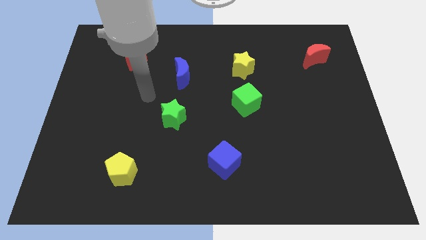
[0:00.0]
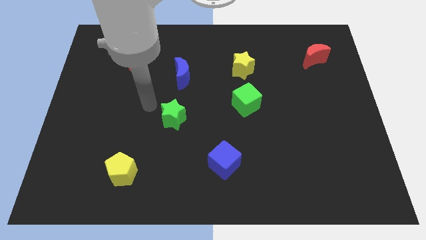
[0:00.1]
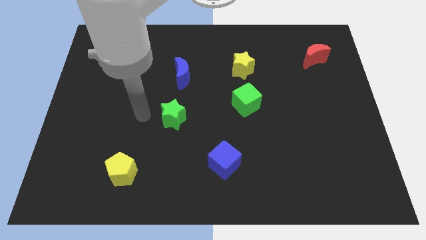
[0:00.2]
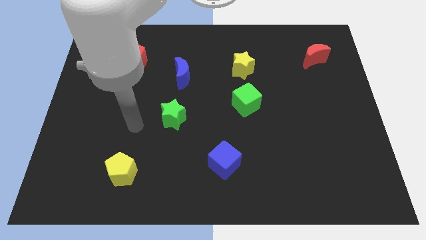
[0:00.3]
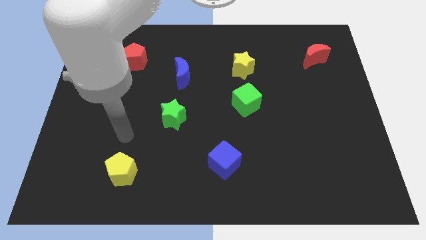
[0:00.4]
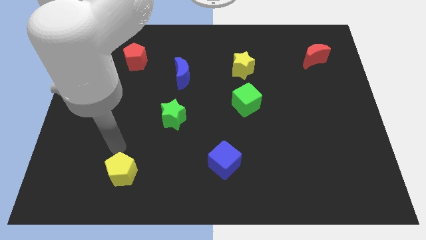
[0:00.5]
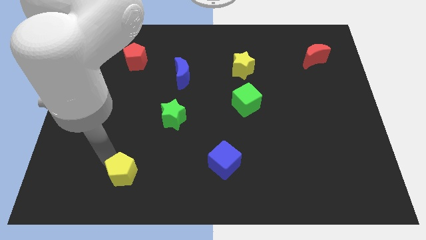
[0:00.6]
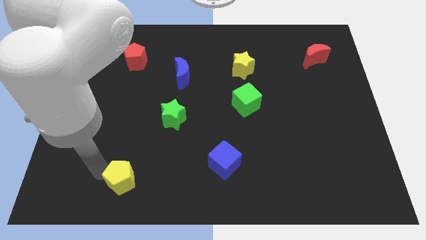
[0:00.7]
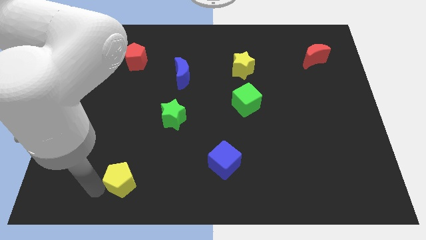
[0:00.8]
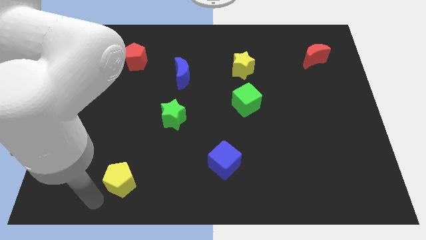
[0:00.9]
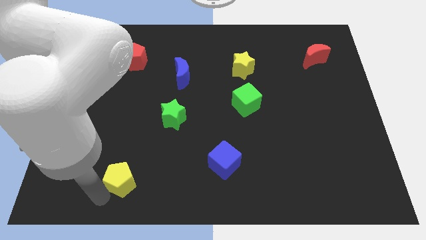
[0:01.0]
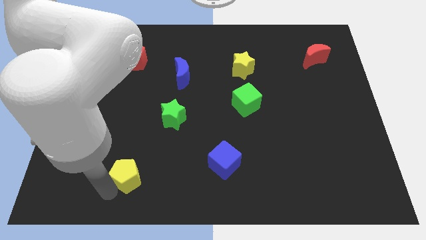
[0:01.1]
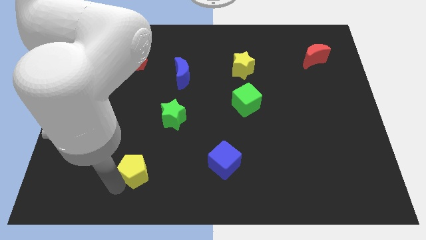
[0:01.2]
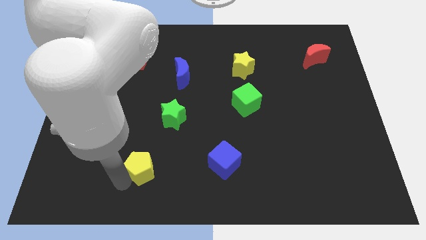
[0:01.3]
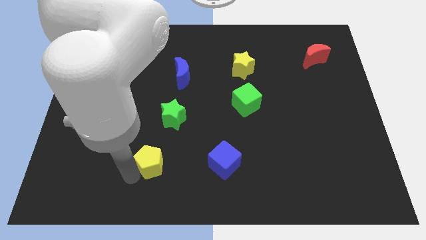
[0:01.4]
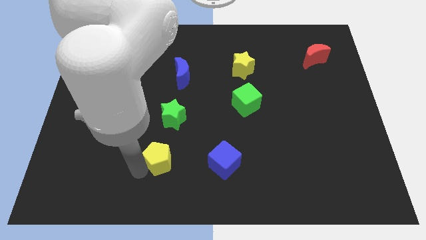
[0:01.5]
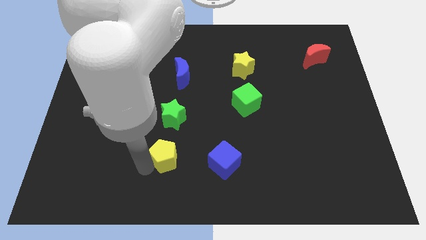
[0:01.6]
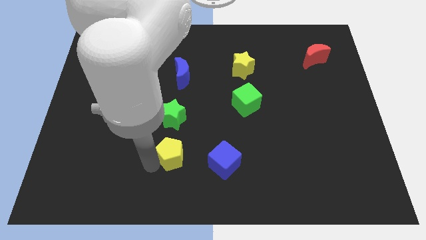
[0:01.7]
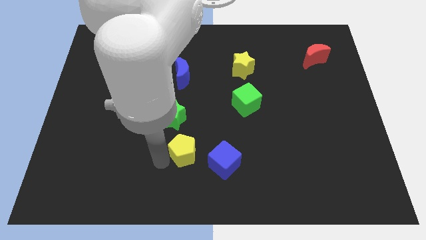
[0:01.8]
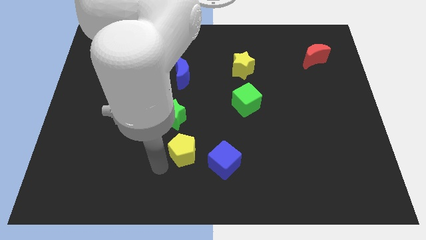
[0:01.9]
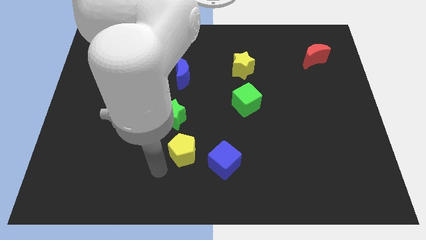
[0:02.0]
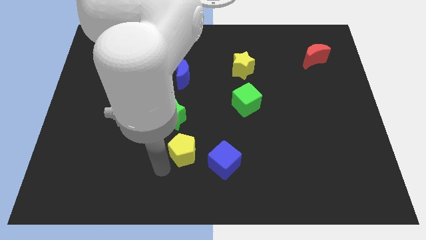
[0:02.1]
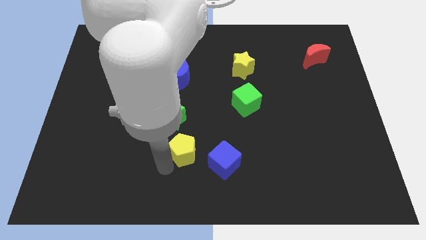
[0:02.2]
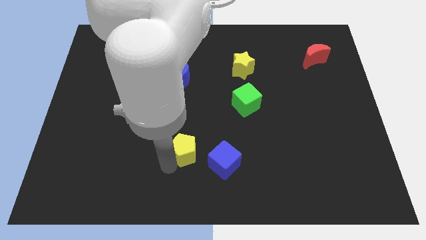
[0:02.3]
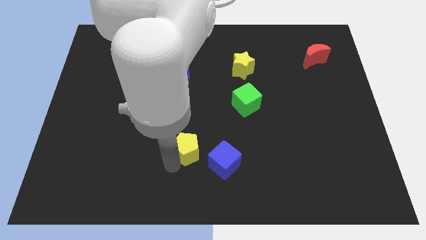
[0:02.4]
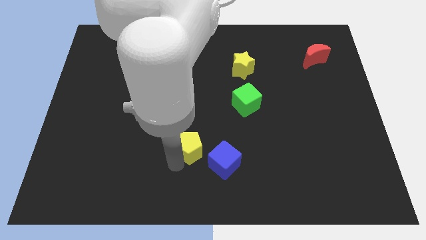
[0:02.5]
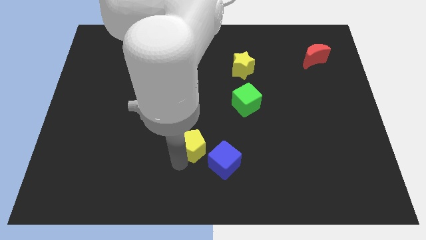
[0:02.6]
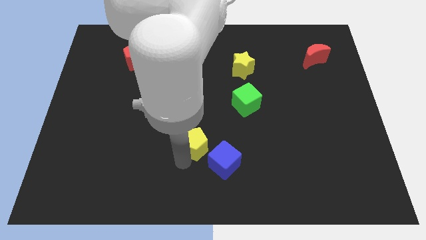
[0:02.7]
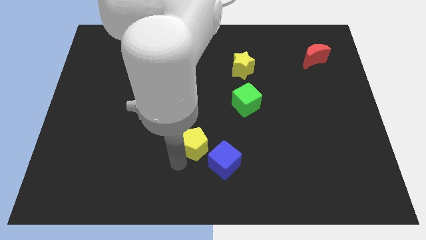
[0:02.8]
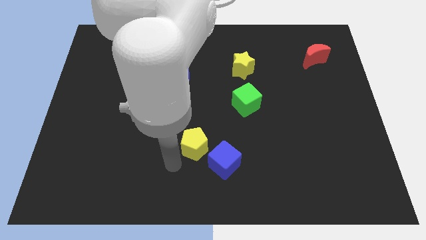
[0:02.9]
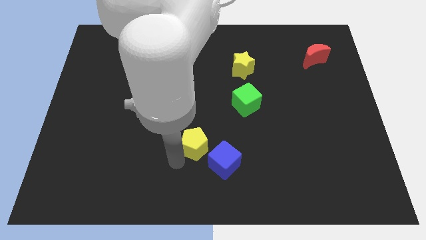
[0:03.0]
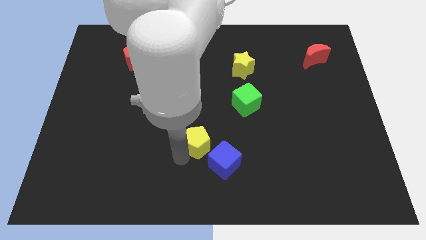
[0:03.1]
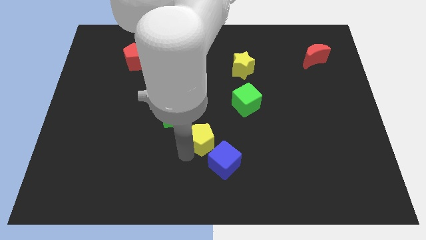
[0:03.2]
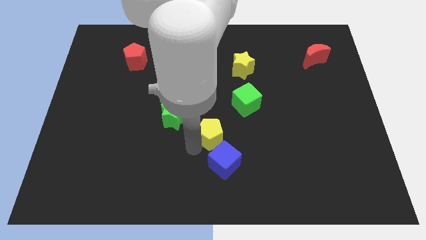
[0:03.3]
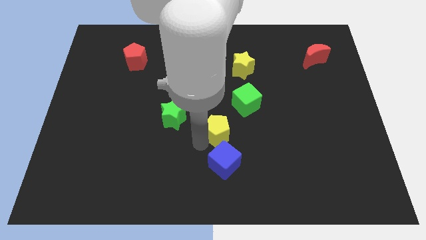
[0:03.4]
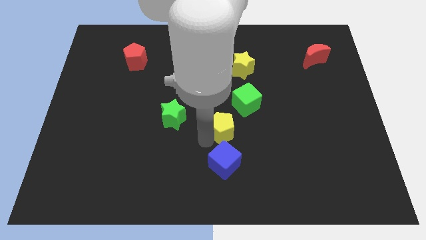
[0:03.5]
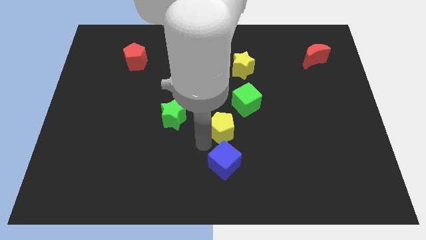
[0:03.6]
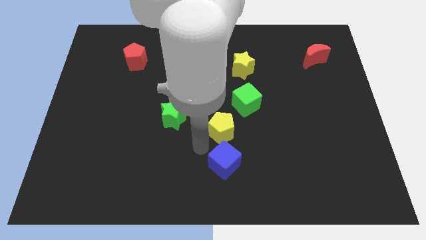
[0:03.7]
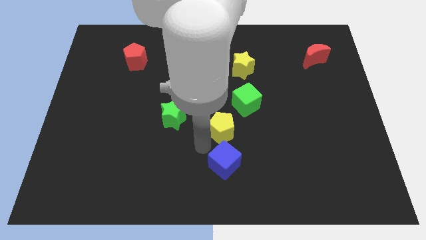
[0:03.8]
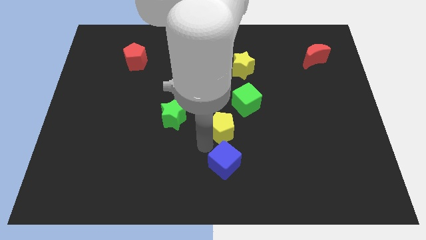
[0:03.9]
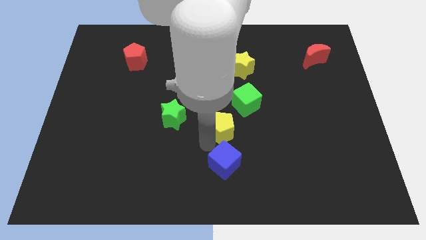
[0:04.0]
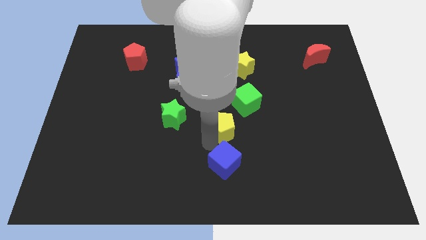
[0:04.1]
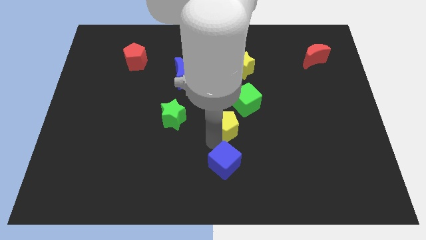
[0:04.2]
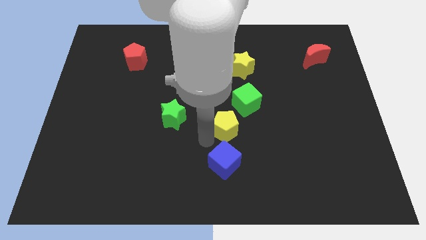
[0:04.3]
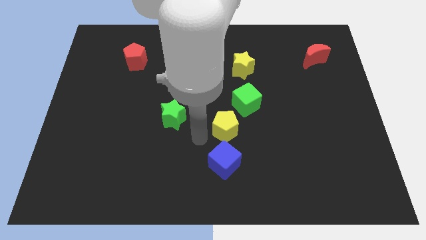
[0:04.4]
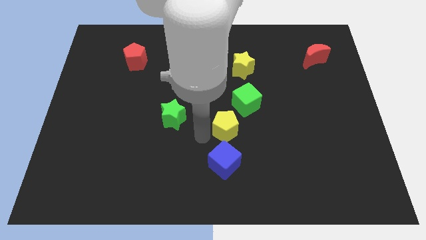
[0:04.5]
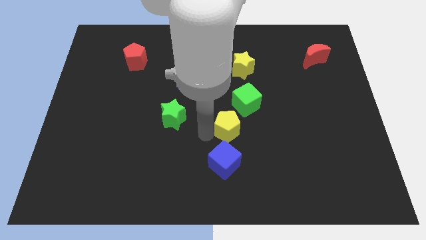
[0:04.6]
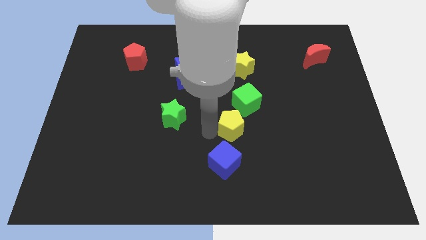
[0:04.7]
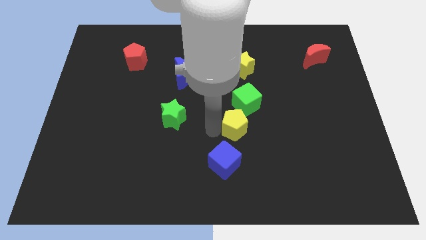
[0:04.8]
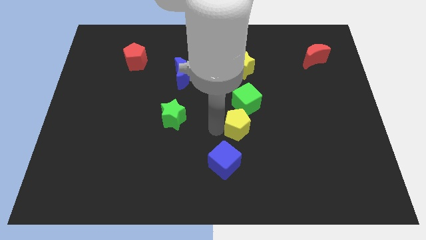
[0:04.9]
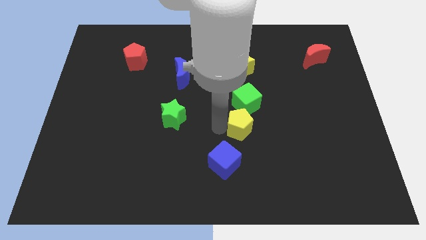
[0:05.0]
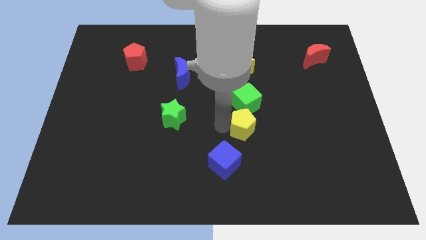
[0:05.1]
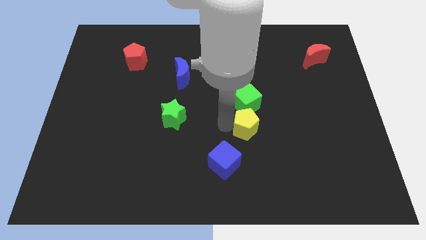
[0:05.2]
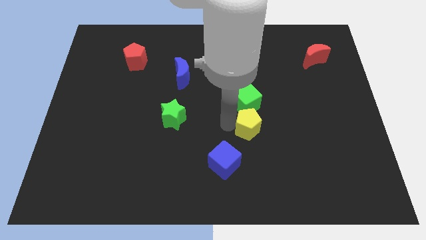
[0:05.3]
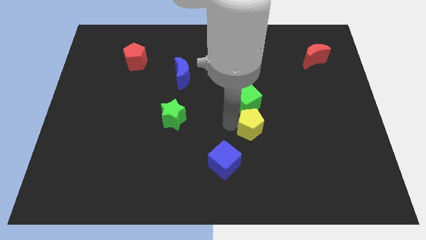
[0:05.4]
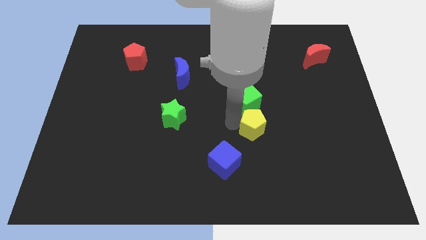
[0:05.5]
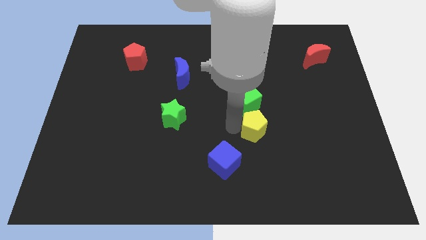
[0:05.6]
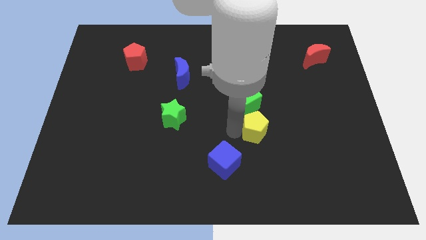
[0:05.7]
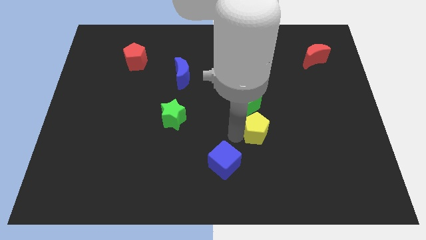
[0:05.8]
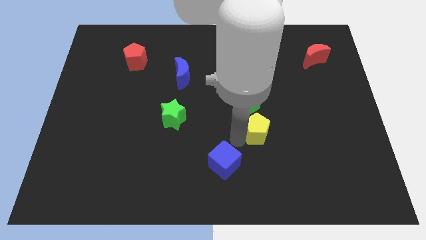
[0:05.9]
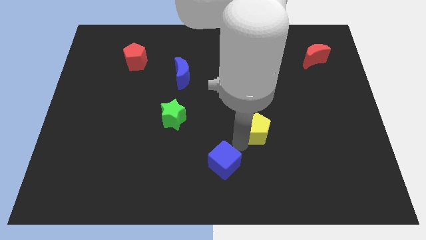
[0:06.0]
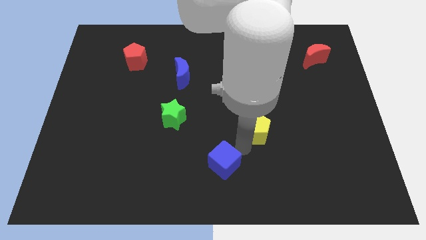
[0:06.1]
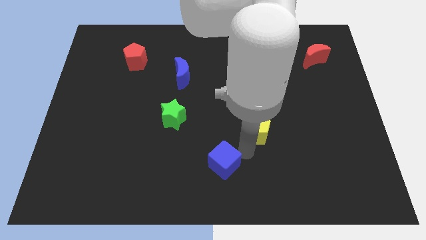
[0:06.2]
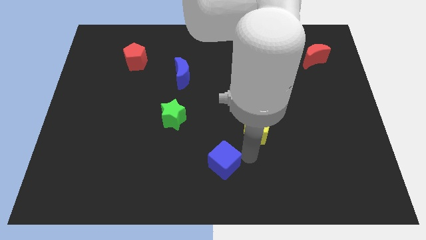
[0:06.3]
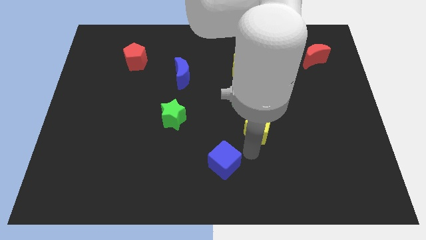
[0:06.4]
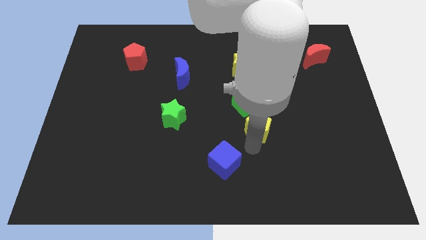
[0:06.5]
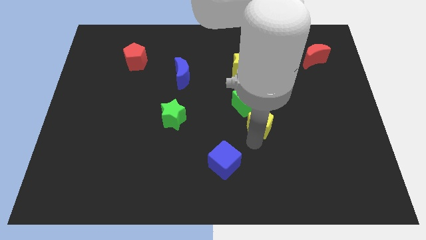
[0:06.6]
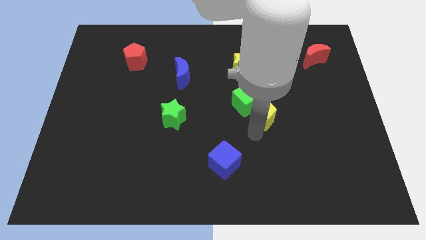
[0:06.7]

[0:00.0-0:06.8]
put the yellow pentagon to the right side of the green cube
